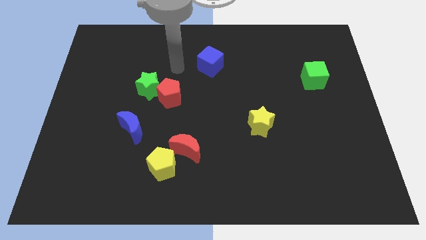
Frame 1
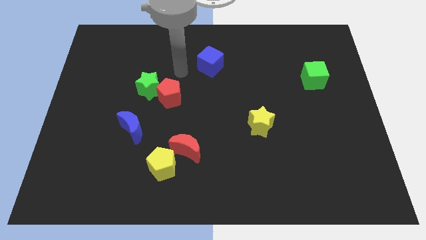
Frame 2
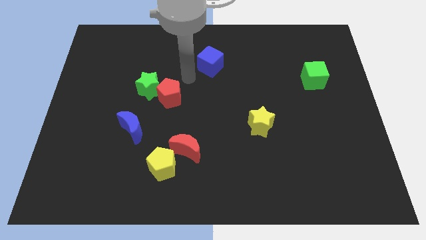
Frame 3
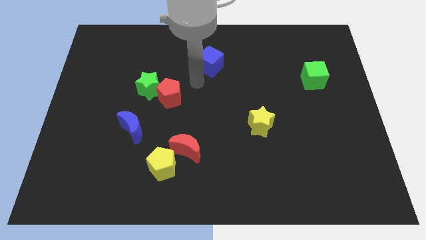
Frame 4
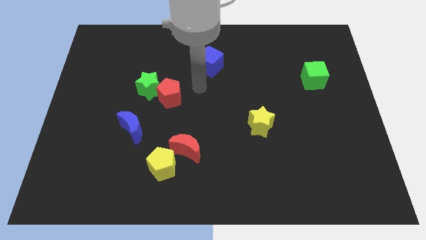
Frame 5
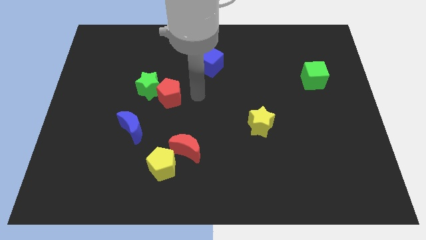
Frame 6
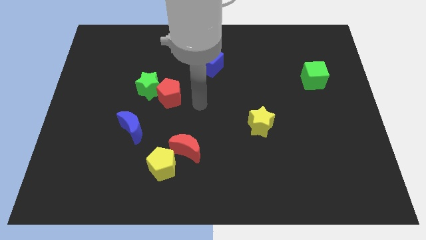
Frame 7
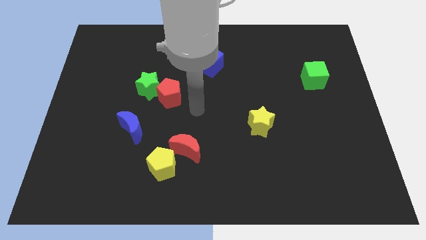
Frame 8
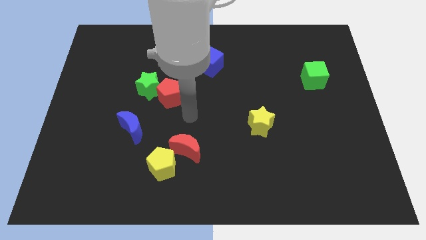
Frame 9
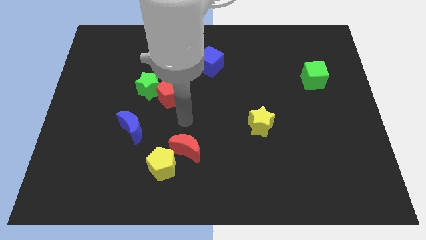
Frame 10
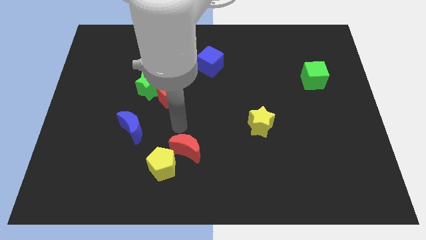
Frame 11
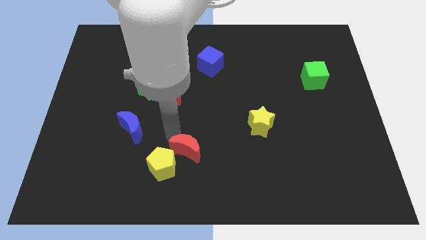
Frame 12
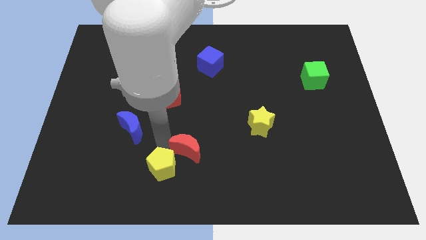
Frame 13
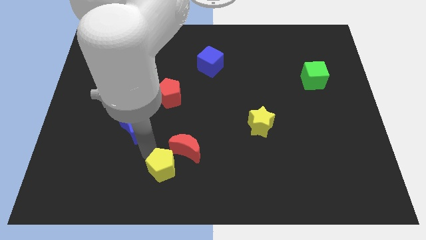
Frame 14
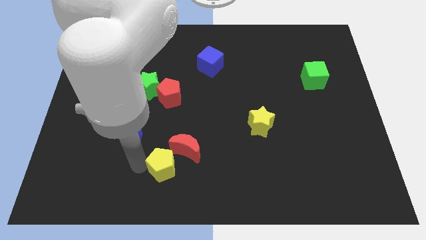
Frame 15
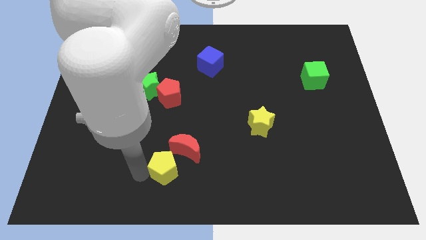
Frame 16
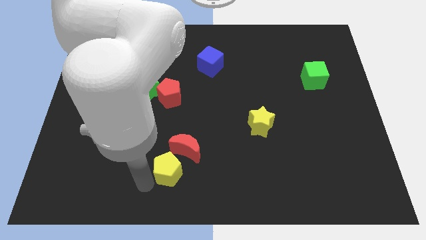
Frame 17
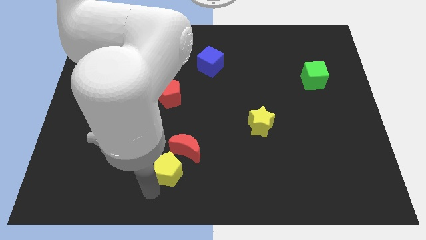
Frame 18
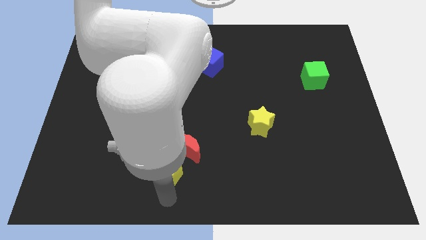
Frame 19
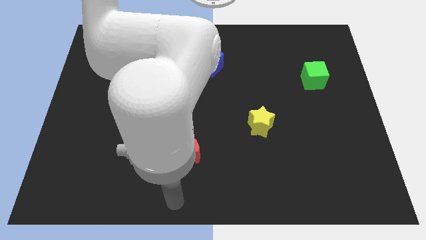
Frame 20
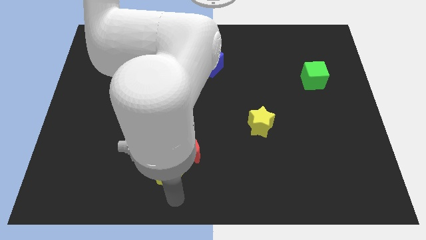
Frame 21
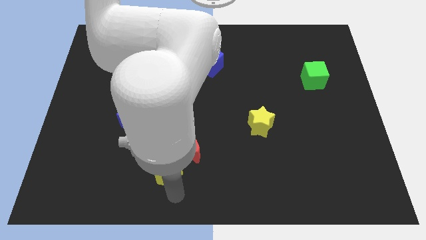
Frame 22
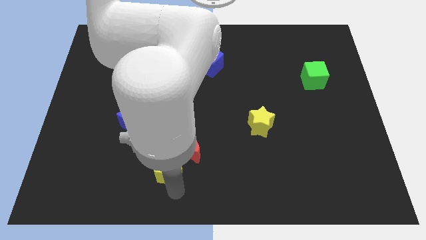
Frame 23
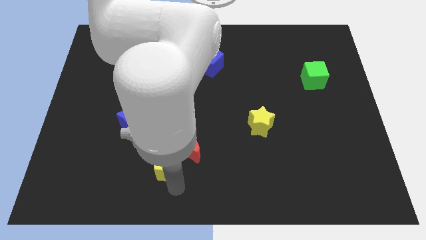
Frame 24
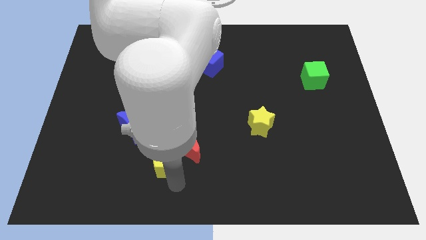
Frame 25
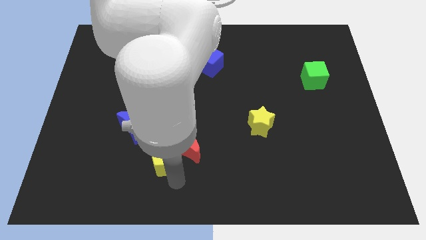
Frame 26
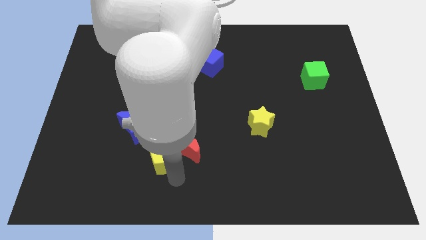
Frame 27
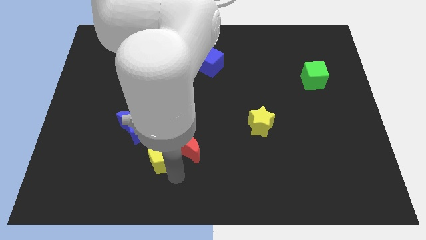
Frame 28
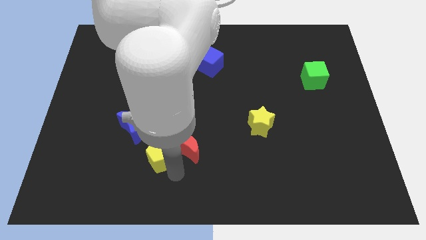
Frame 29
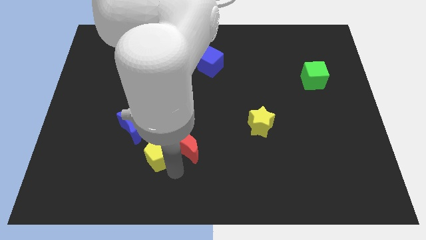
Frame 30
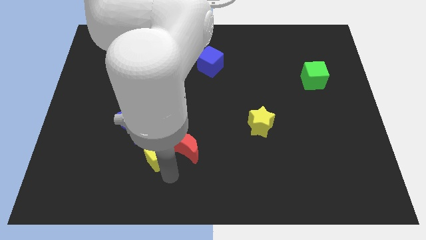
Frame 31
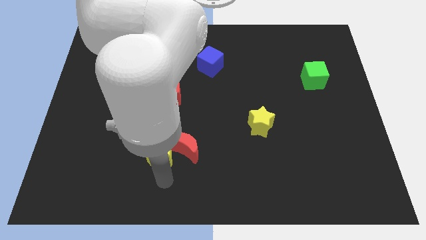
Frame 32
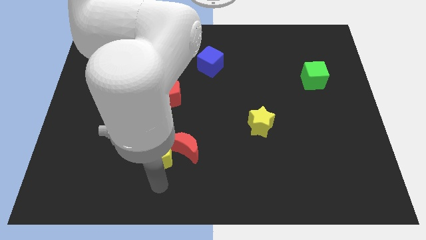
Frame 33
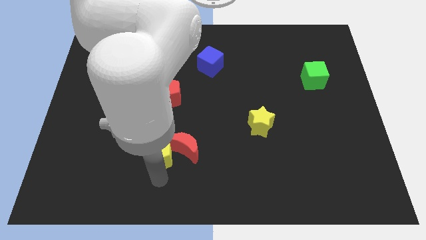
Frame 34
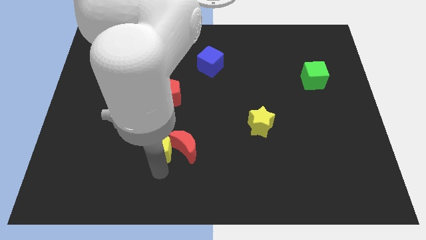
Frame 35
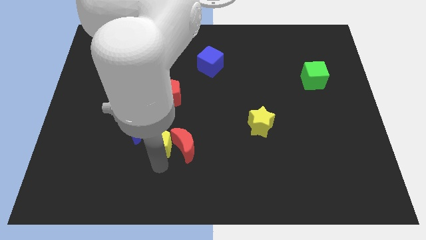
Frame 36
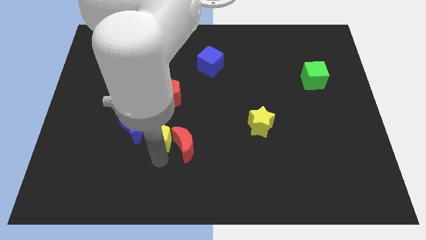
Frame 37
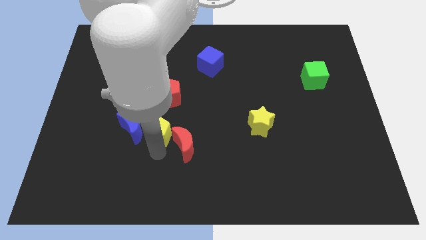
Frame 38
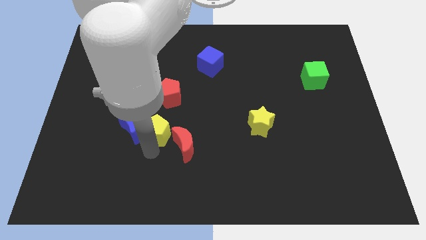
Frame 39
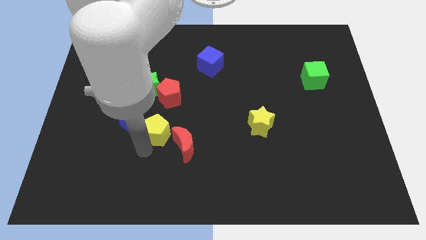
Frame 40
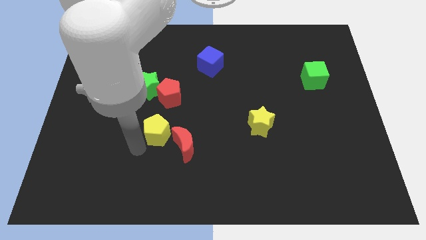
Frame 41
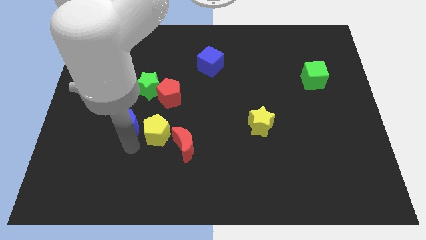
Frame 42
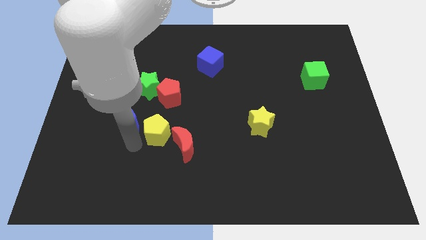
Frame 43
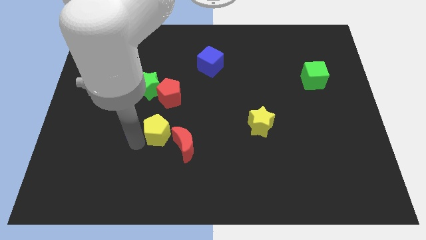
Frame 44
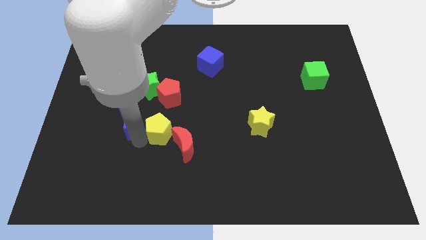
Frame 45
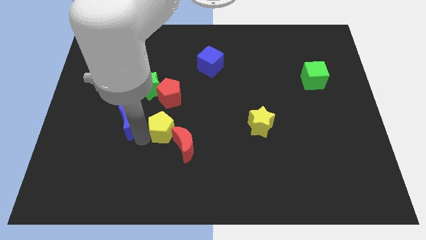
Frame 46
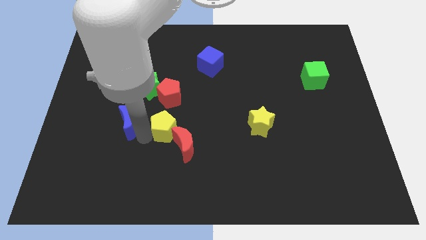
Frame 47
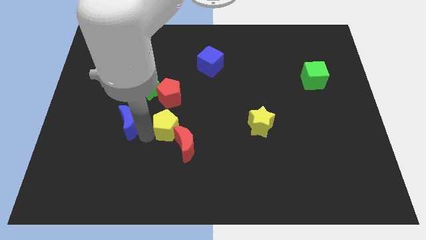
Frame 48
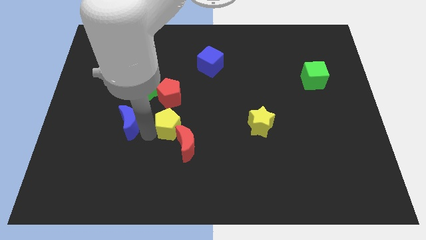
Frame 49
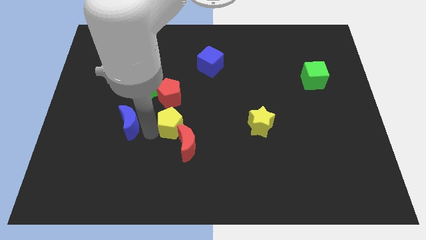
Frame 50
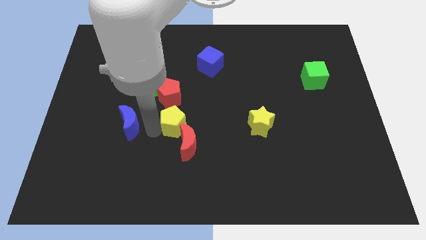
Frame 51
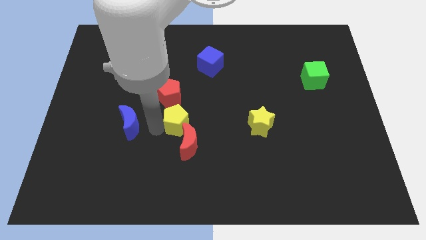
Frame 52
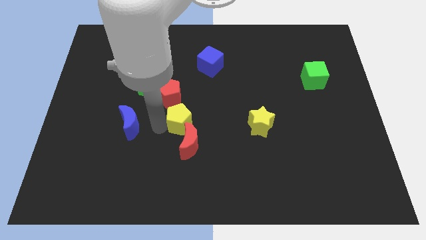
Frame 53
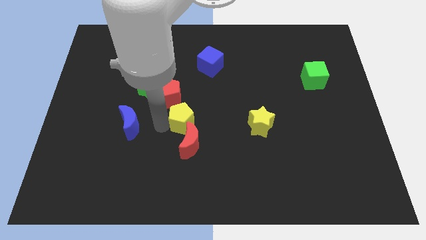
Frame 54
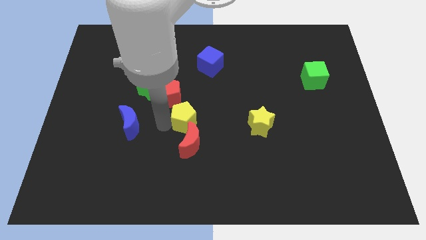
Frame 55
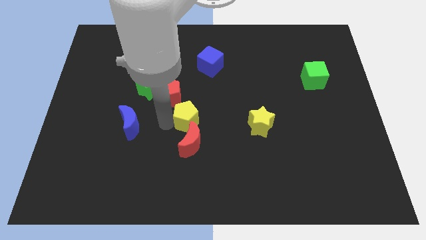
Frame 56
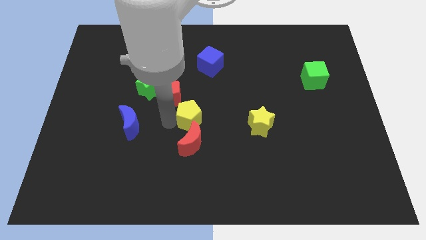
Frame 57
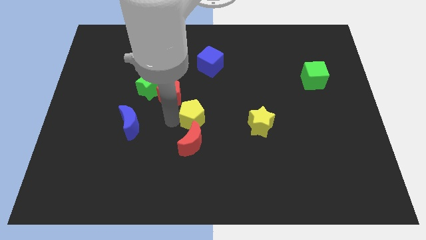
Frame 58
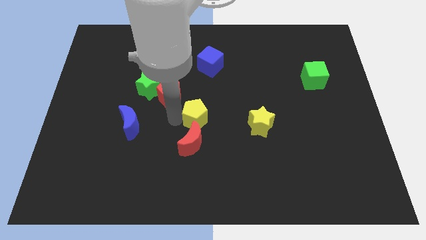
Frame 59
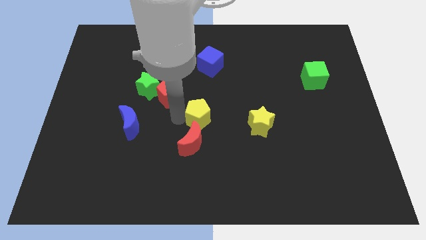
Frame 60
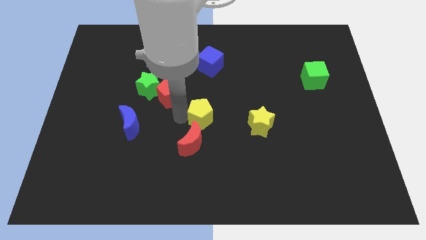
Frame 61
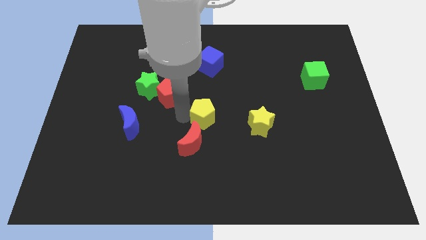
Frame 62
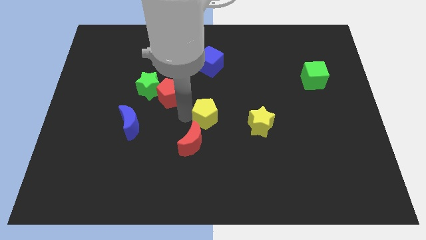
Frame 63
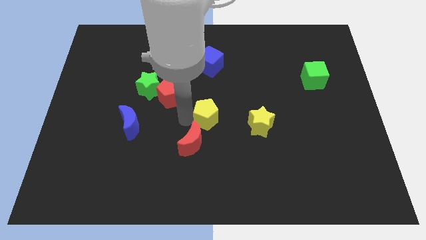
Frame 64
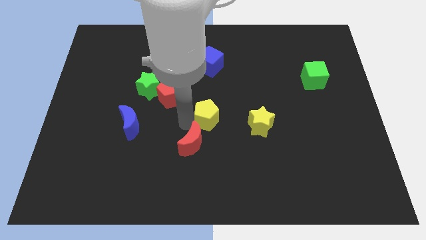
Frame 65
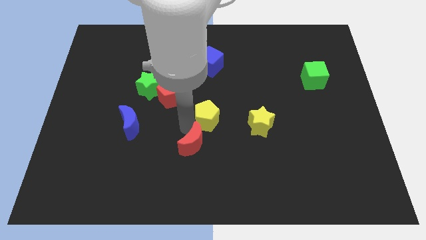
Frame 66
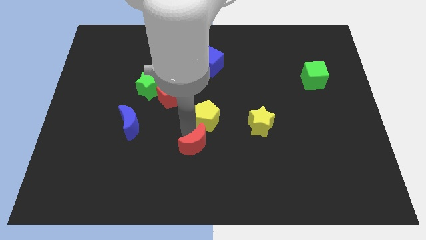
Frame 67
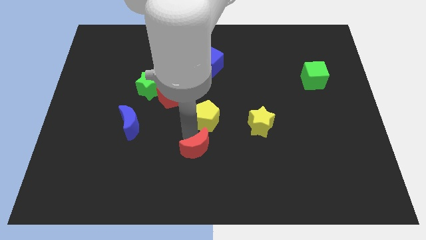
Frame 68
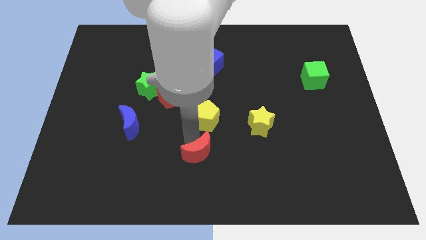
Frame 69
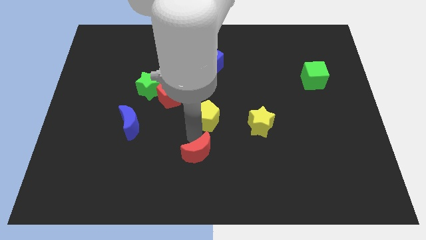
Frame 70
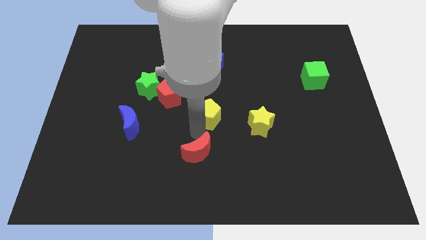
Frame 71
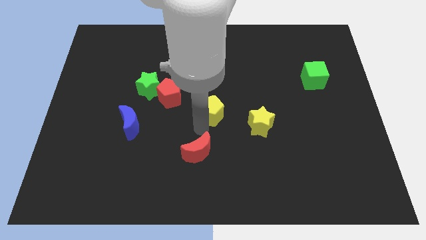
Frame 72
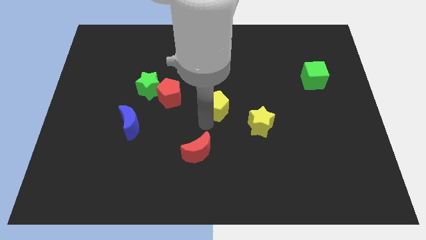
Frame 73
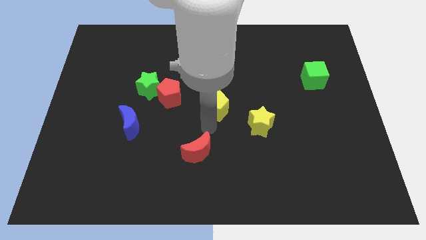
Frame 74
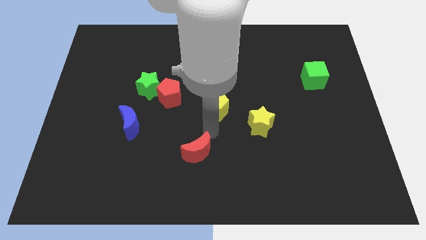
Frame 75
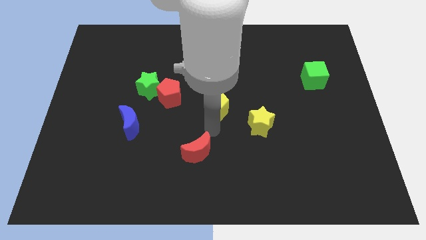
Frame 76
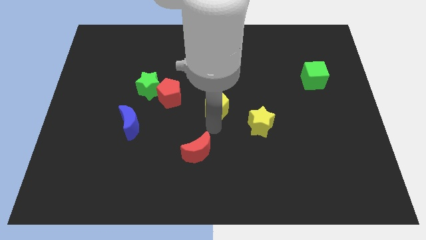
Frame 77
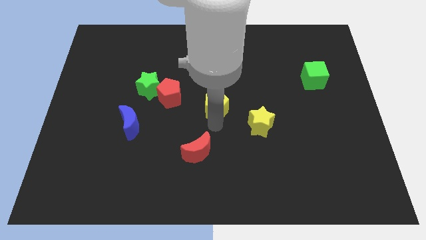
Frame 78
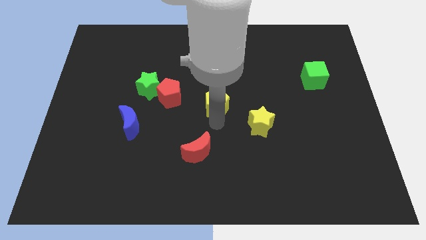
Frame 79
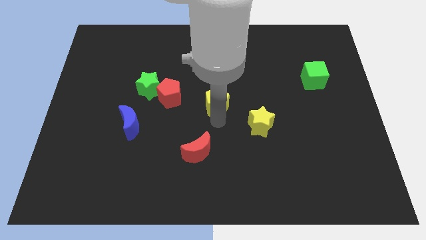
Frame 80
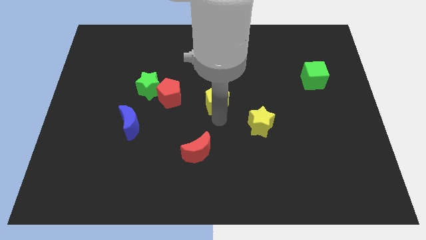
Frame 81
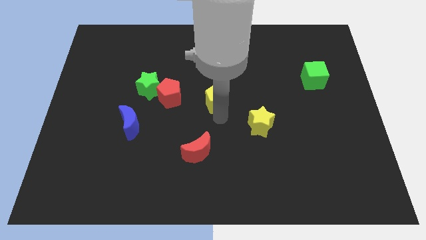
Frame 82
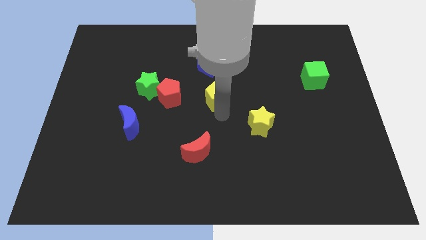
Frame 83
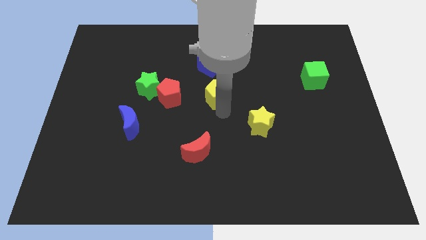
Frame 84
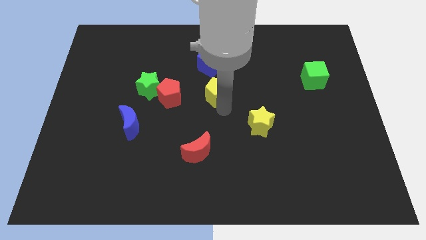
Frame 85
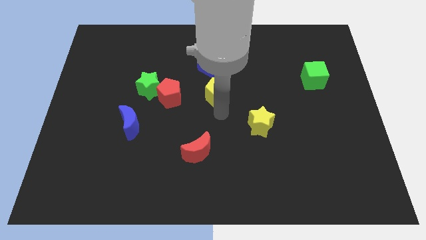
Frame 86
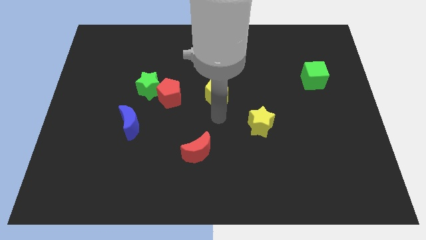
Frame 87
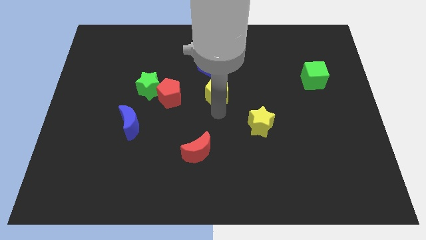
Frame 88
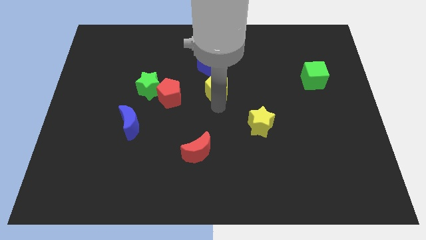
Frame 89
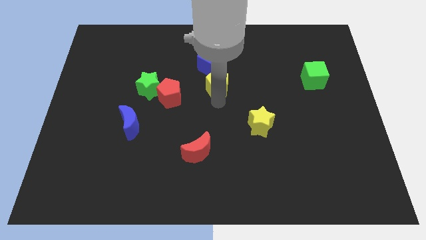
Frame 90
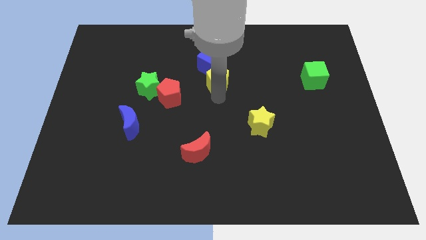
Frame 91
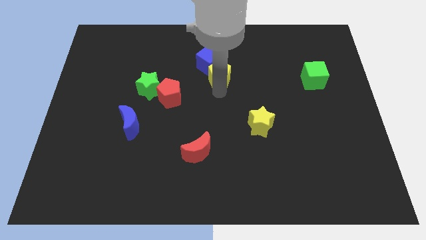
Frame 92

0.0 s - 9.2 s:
move the yellow pentagon close to the blue cube
